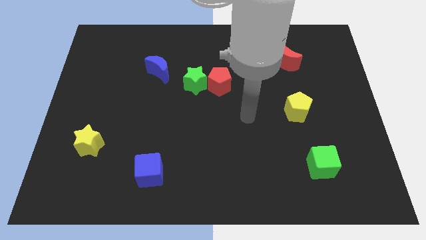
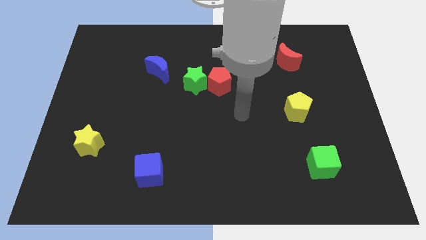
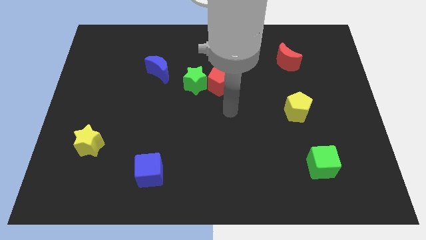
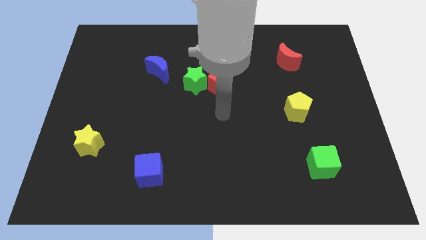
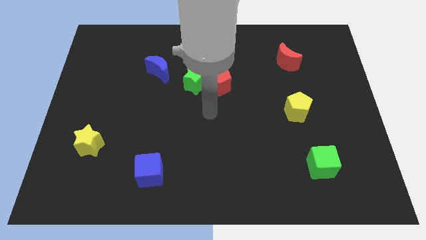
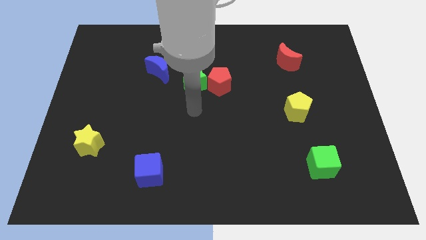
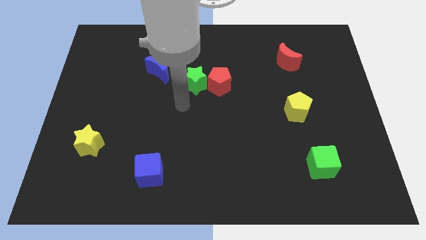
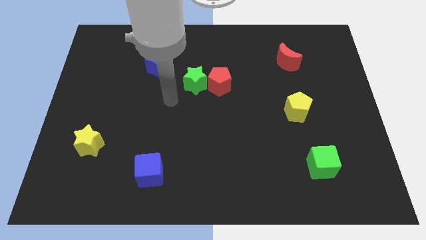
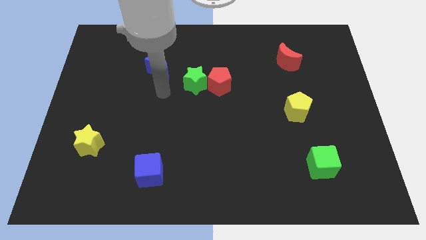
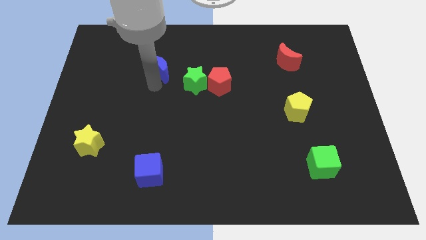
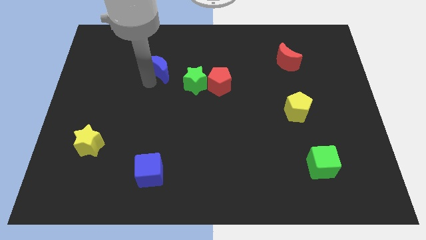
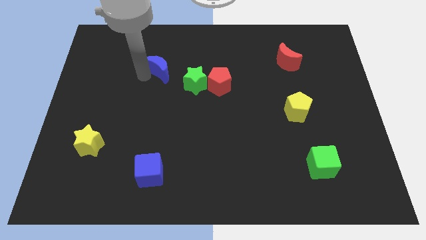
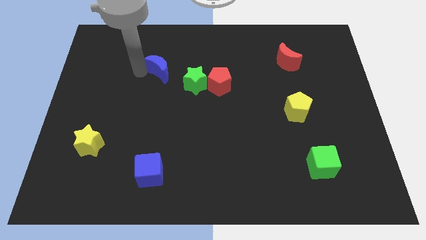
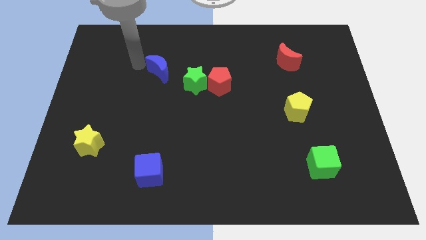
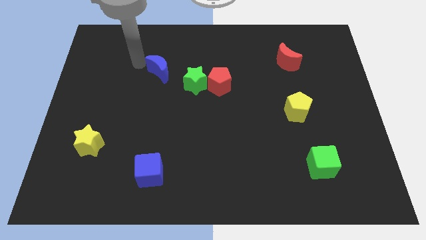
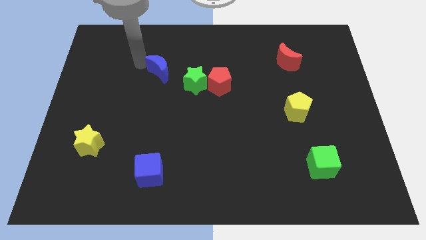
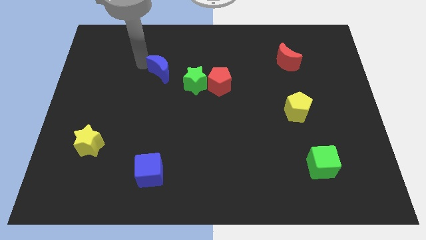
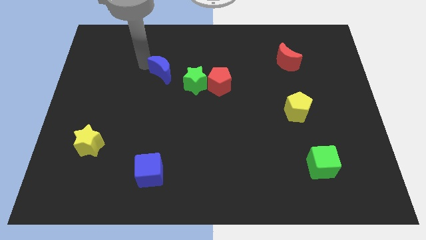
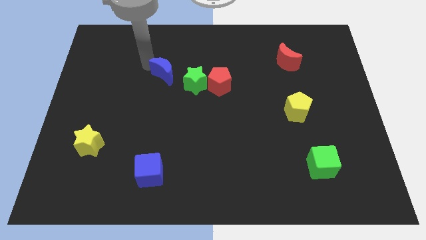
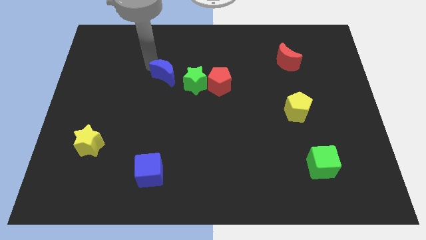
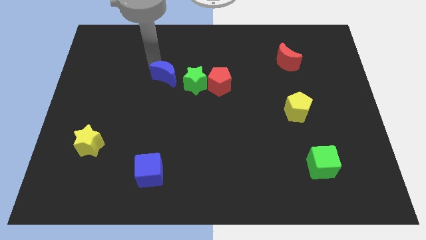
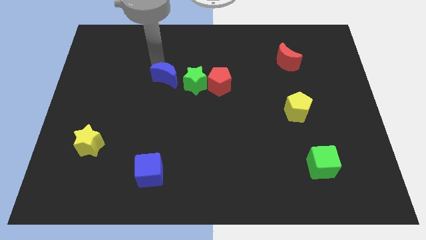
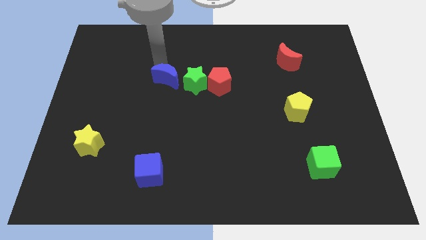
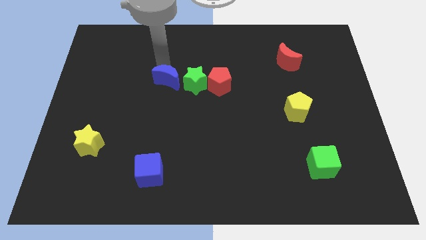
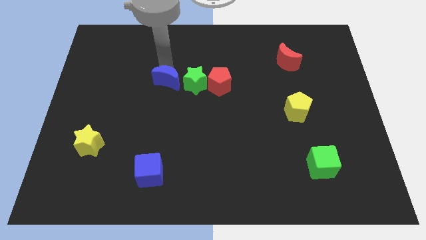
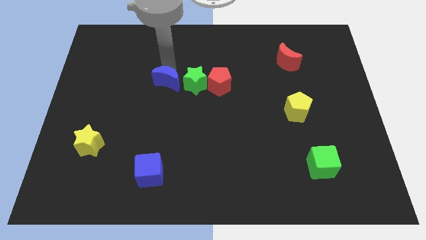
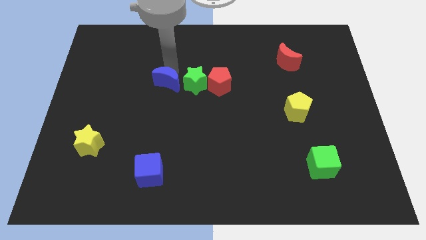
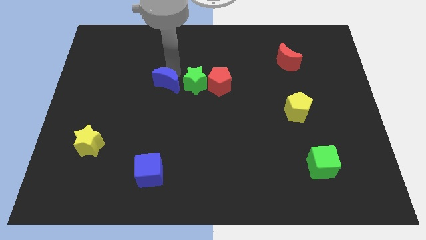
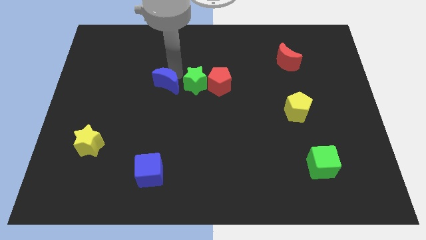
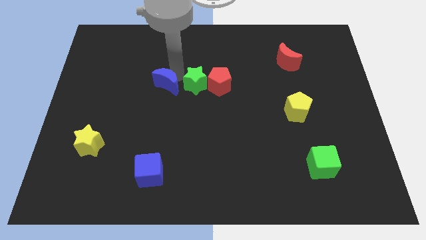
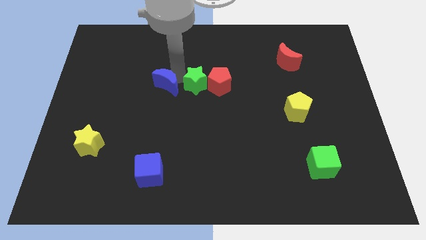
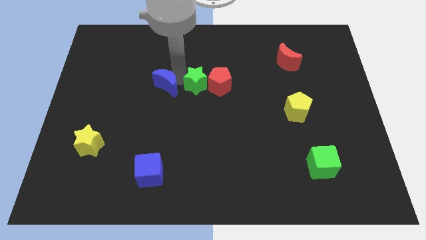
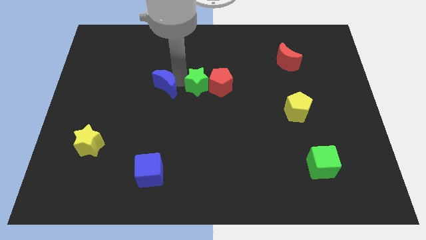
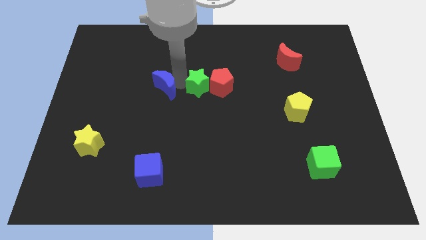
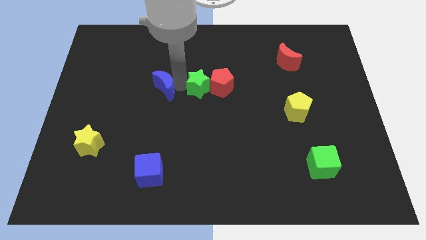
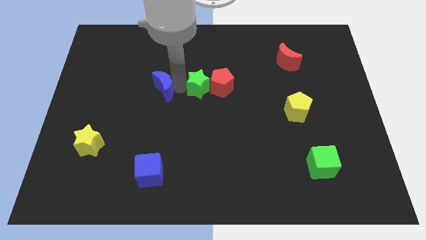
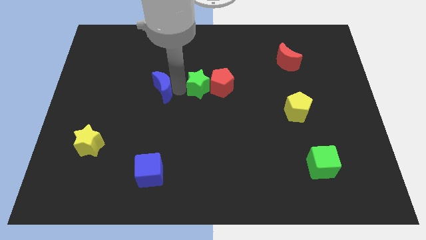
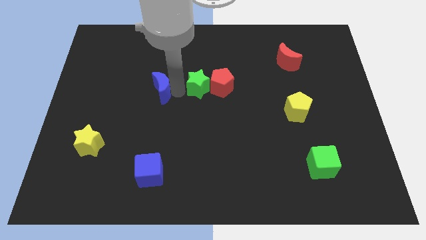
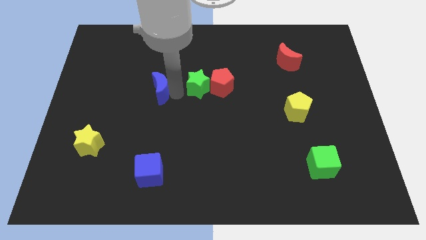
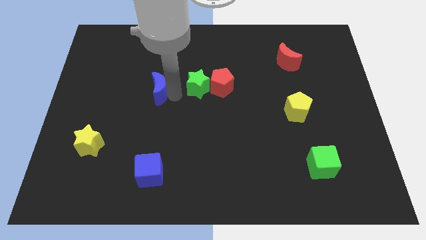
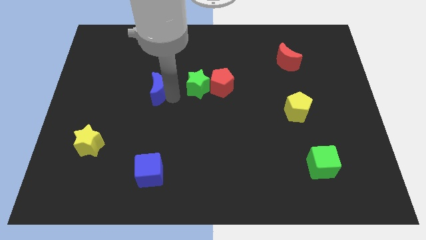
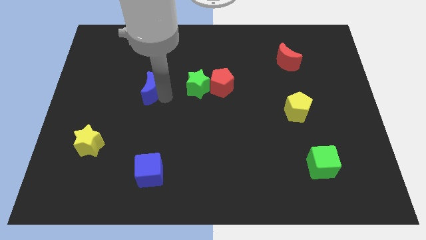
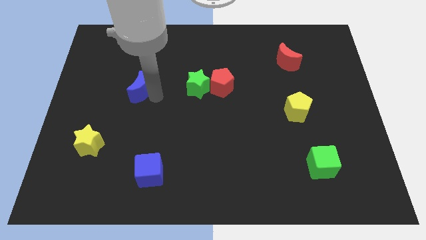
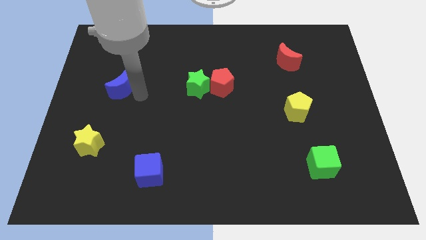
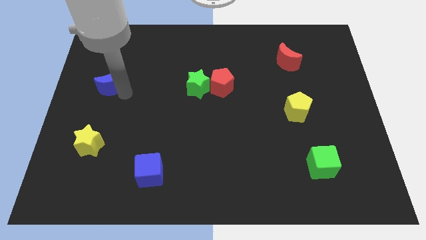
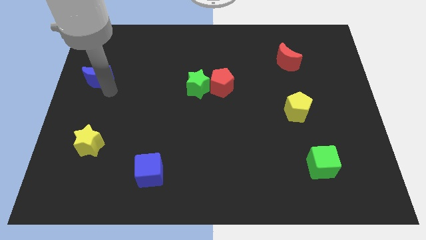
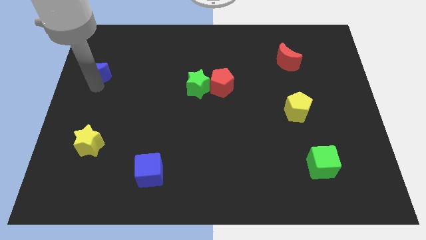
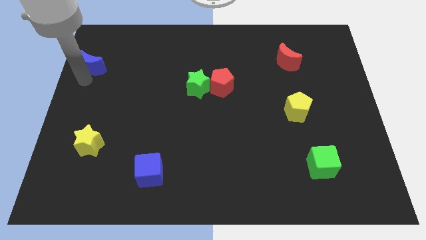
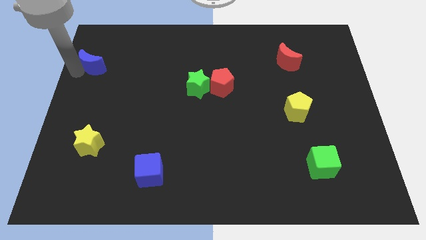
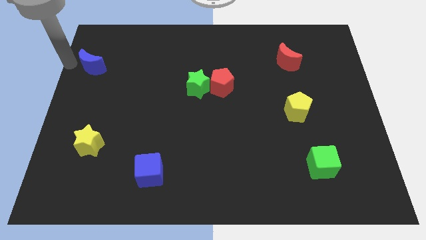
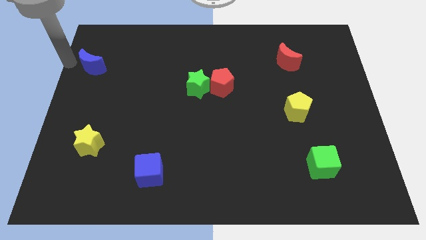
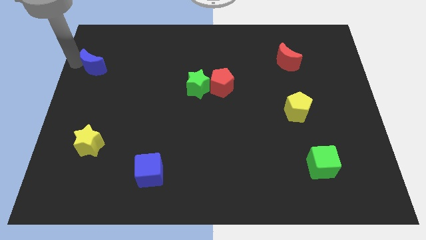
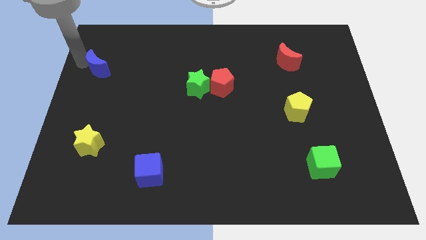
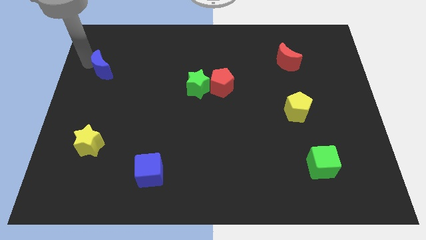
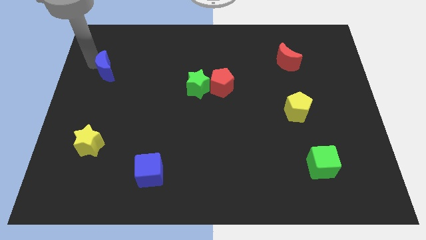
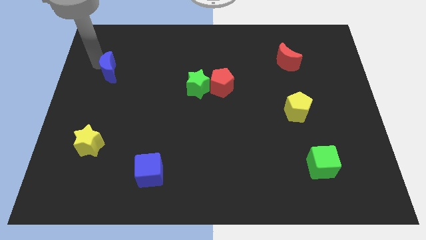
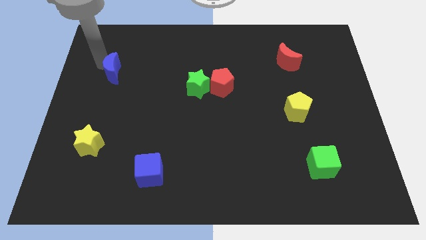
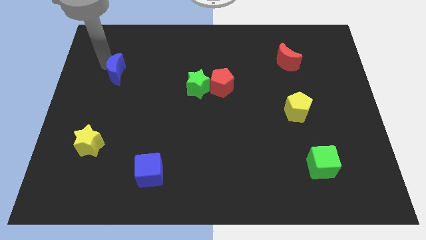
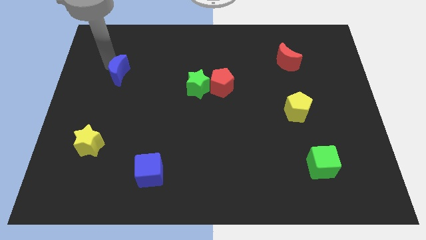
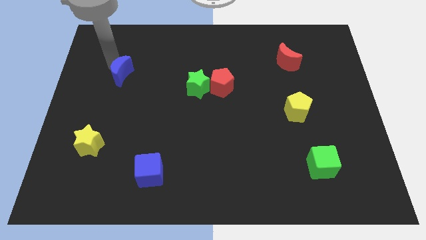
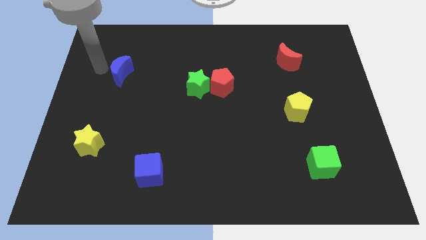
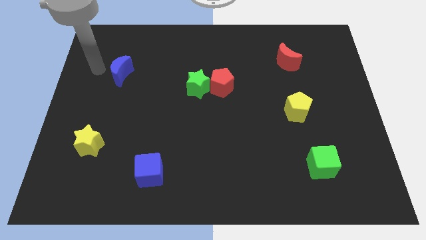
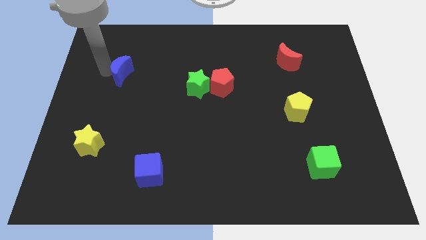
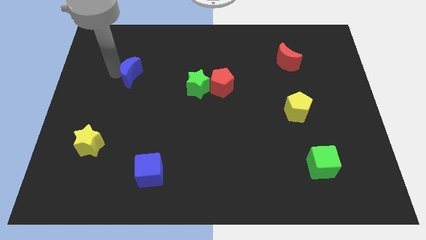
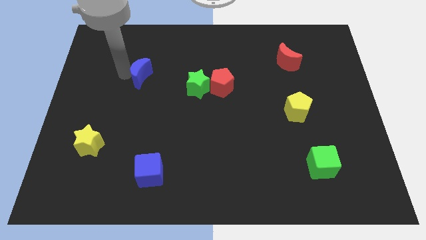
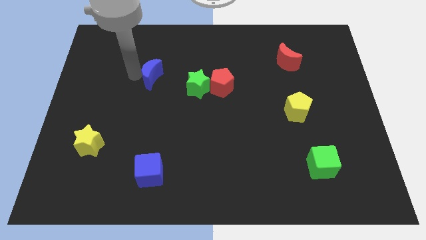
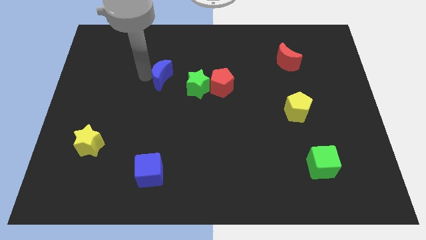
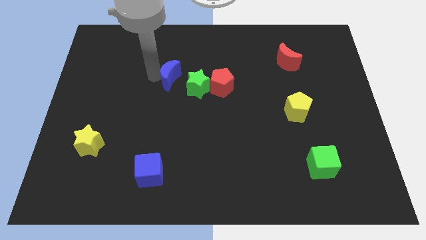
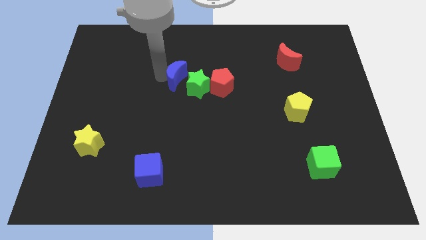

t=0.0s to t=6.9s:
push the blue moon close to the green star
